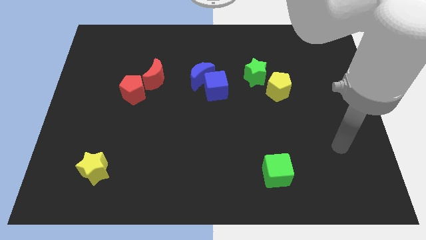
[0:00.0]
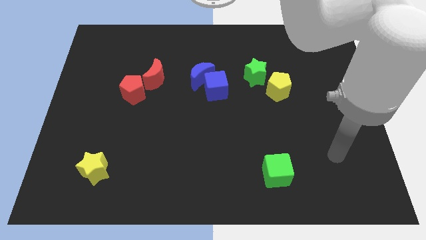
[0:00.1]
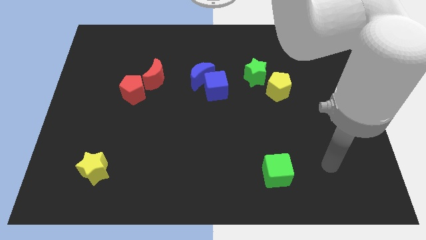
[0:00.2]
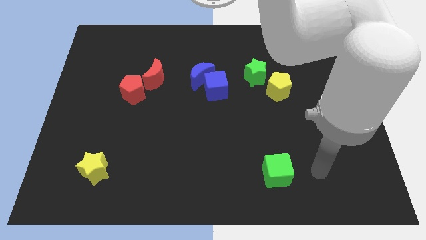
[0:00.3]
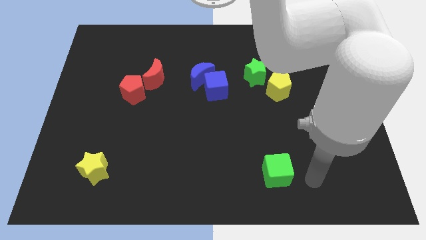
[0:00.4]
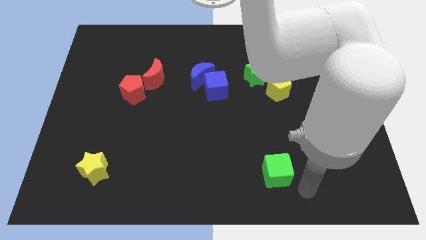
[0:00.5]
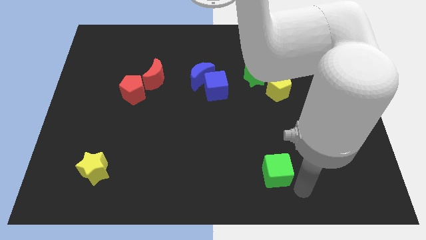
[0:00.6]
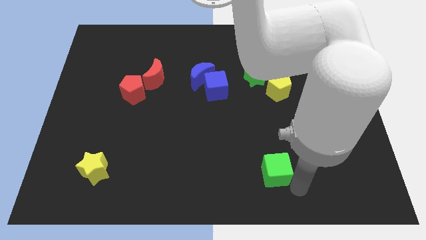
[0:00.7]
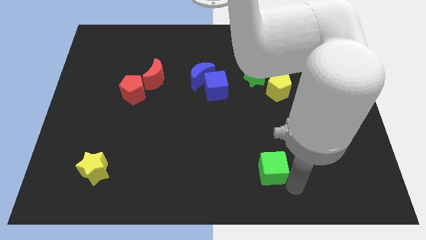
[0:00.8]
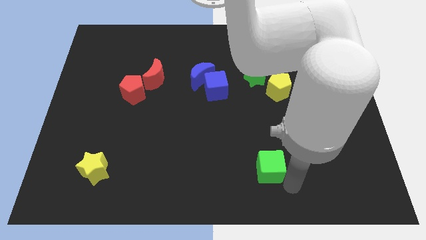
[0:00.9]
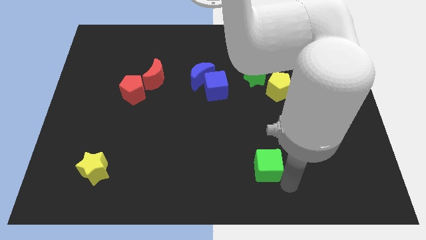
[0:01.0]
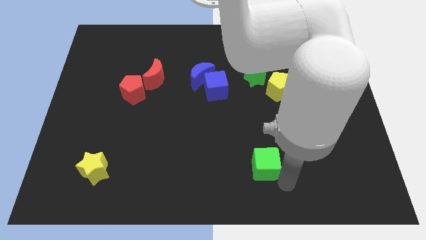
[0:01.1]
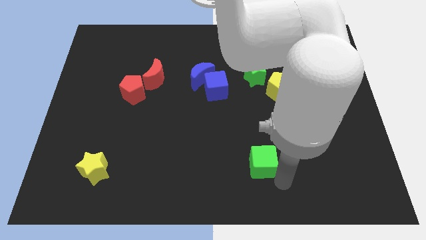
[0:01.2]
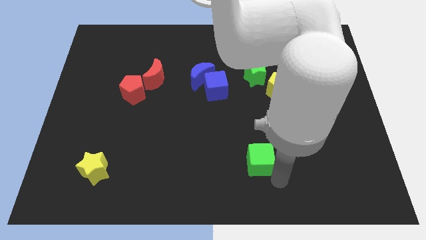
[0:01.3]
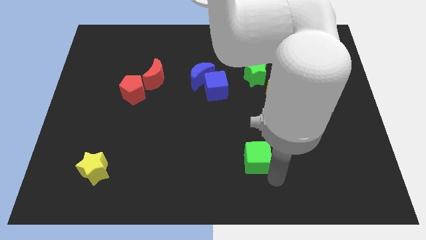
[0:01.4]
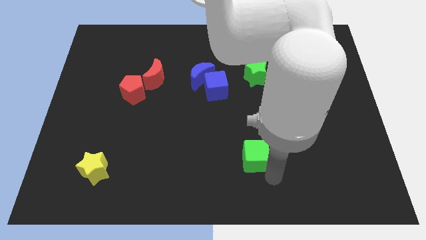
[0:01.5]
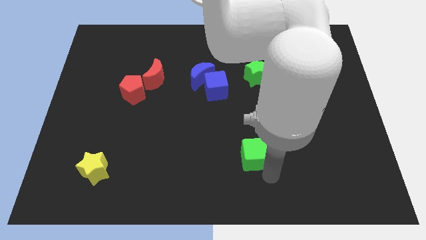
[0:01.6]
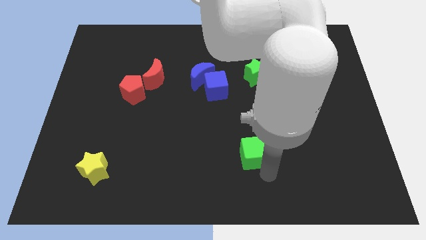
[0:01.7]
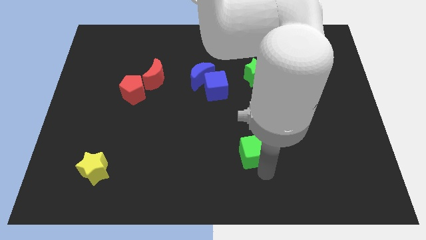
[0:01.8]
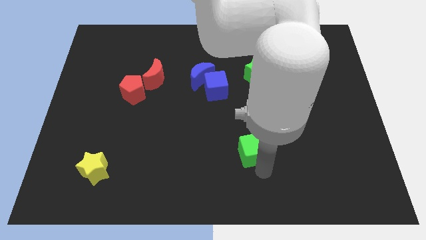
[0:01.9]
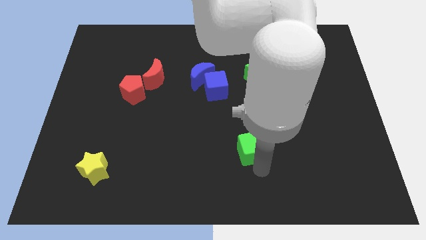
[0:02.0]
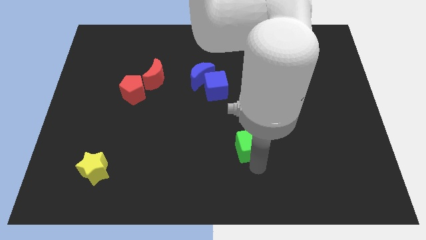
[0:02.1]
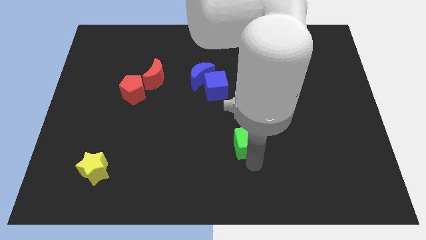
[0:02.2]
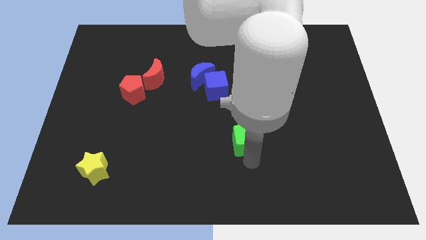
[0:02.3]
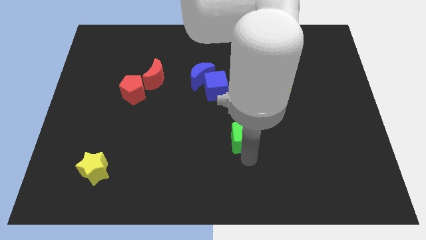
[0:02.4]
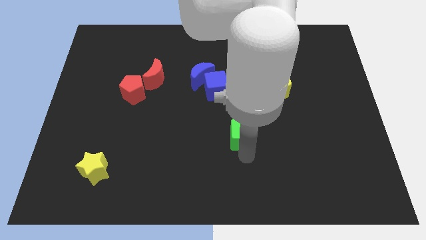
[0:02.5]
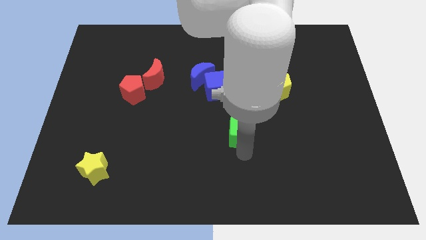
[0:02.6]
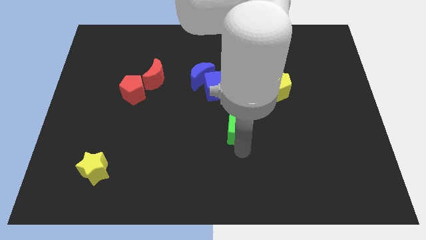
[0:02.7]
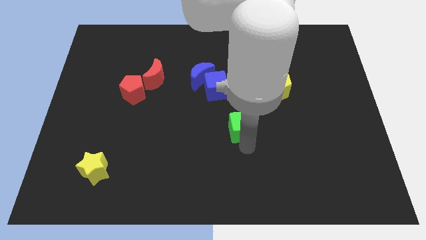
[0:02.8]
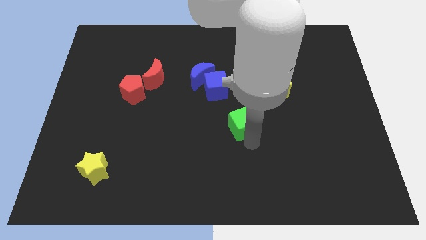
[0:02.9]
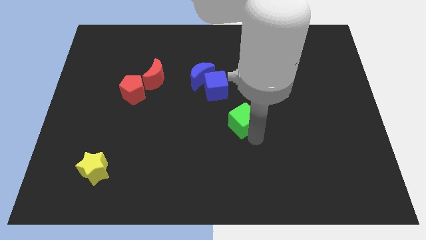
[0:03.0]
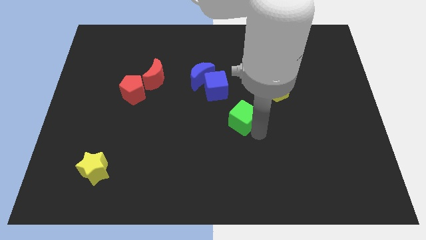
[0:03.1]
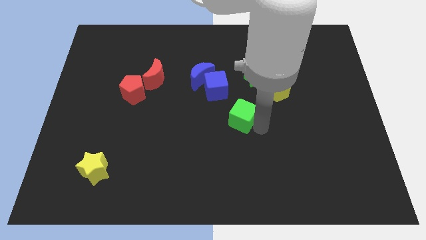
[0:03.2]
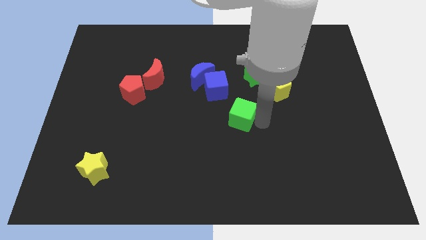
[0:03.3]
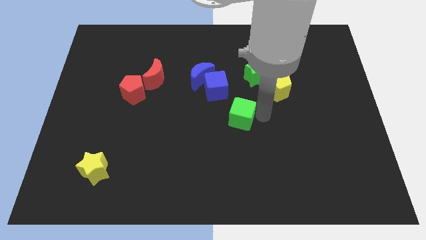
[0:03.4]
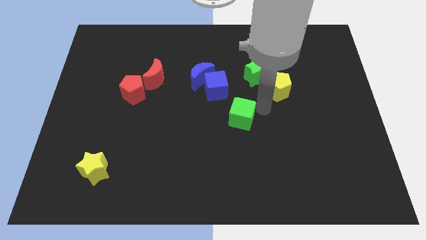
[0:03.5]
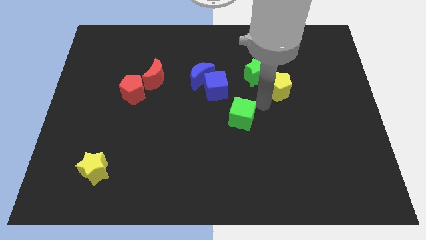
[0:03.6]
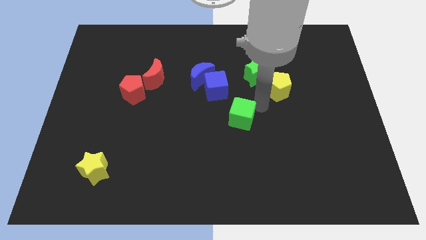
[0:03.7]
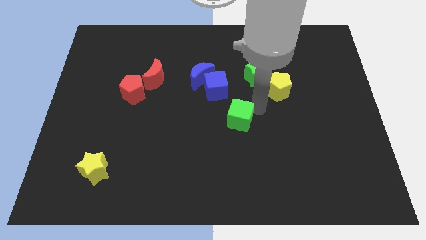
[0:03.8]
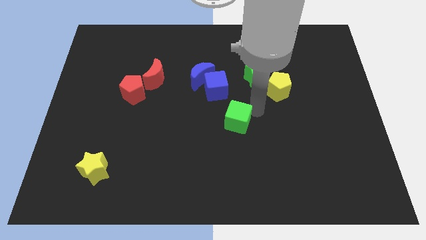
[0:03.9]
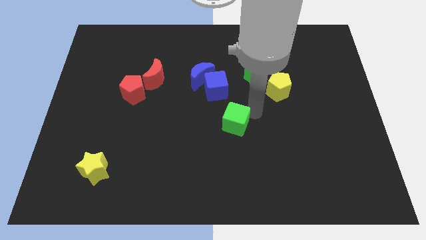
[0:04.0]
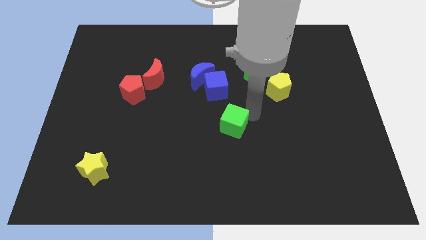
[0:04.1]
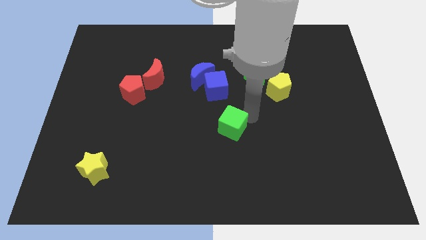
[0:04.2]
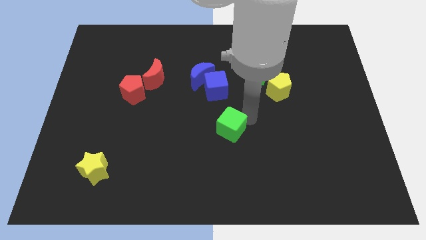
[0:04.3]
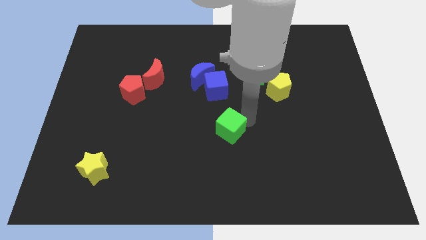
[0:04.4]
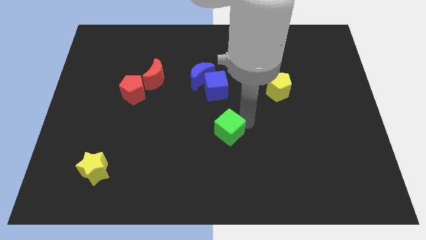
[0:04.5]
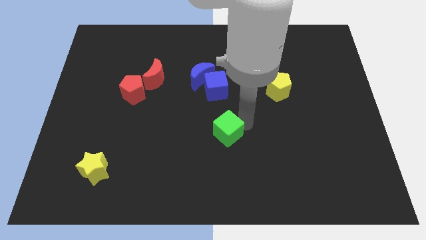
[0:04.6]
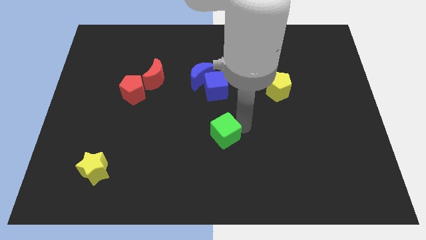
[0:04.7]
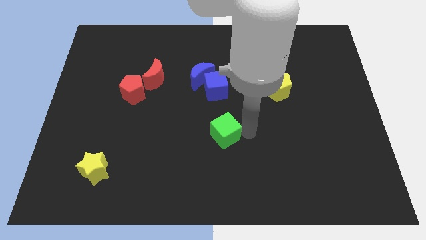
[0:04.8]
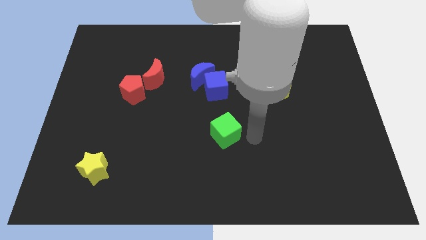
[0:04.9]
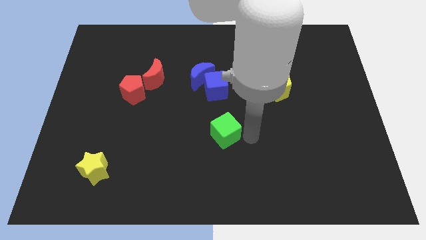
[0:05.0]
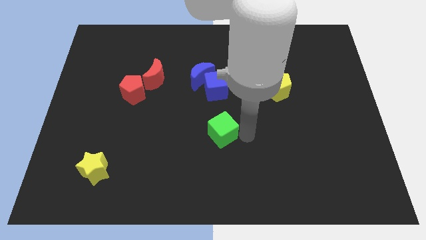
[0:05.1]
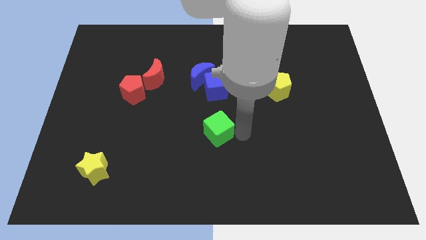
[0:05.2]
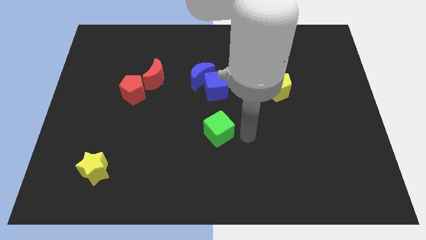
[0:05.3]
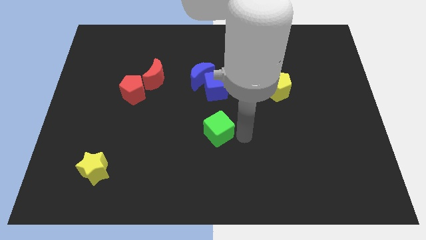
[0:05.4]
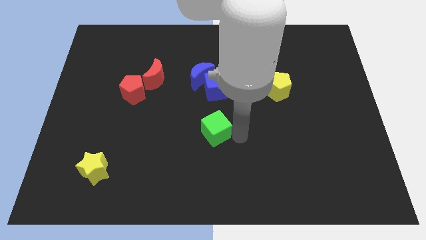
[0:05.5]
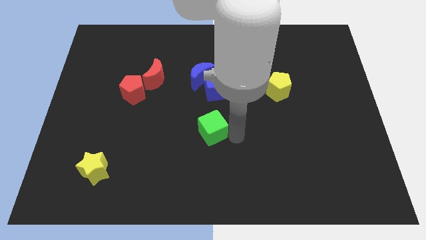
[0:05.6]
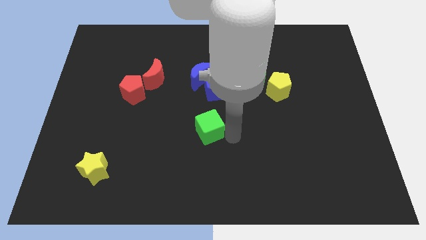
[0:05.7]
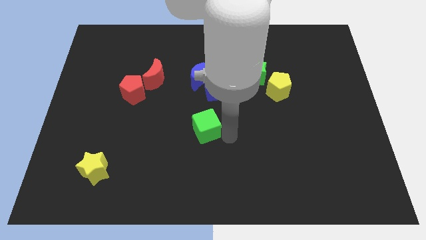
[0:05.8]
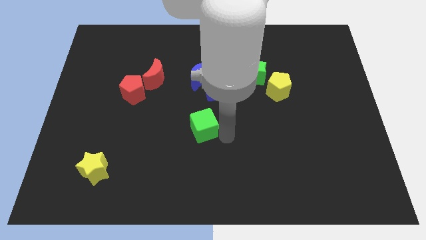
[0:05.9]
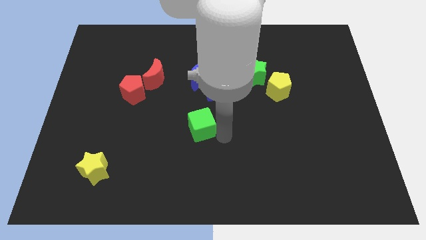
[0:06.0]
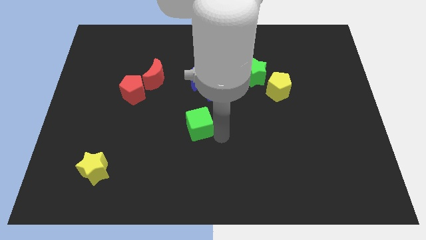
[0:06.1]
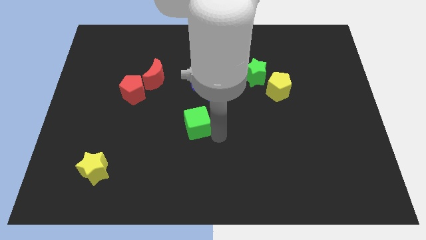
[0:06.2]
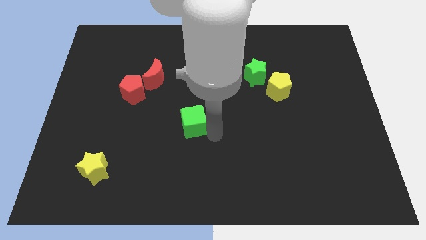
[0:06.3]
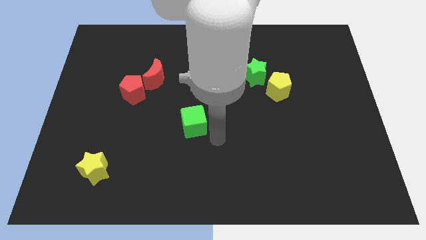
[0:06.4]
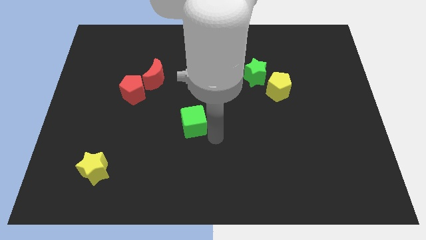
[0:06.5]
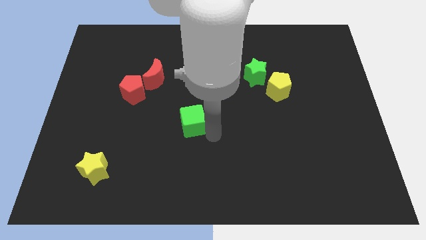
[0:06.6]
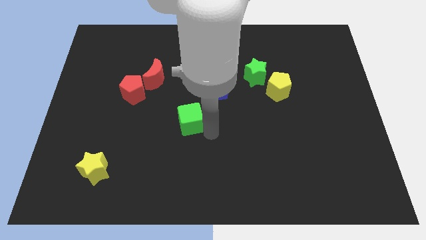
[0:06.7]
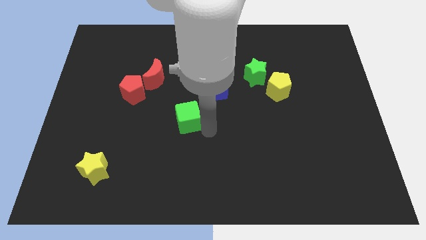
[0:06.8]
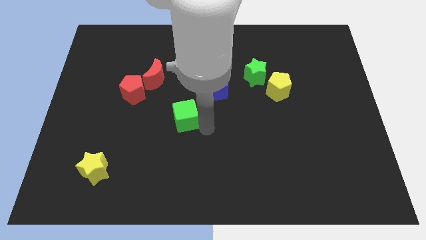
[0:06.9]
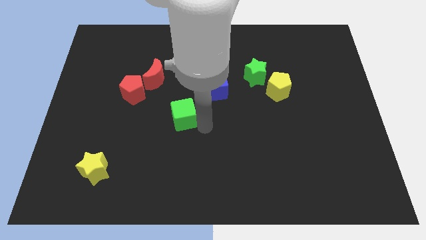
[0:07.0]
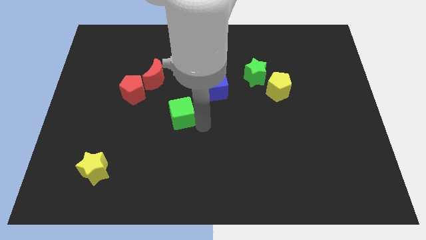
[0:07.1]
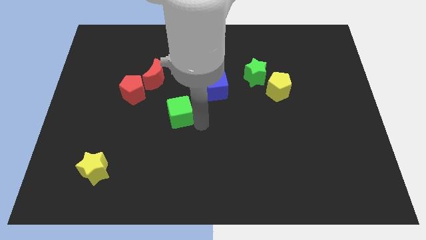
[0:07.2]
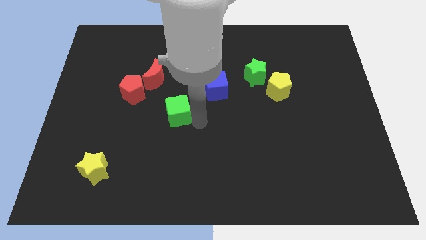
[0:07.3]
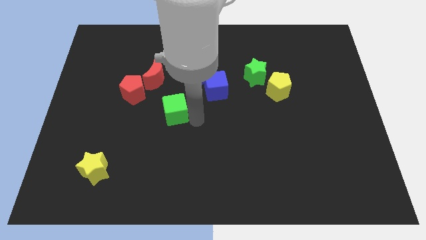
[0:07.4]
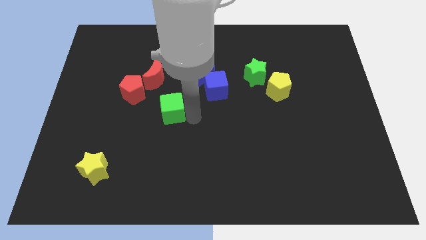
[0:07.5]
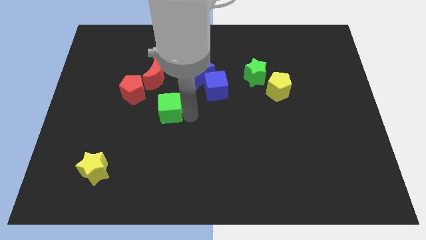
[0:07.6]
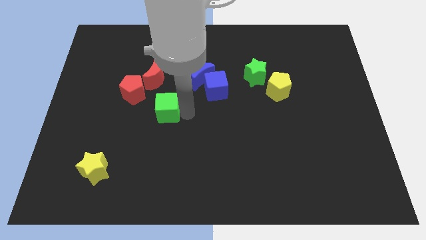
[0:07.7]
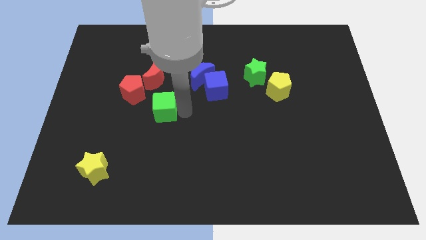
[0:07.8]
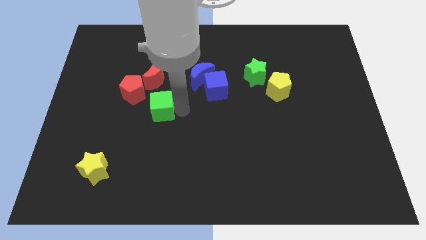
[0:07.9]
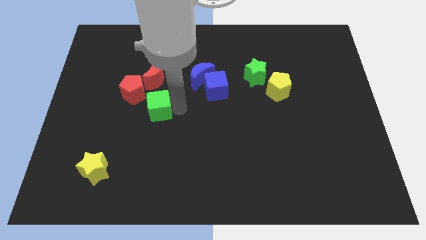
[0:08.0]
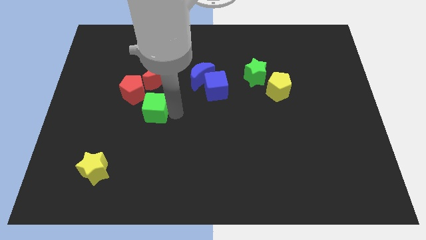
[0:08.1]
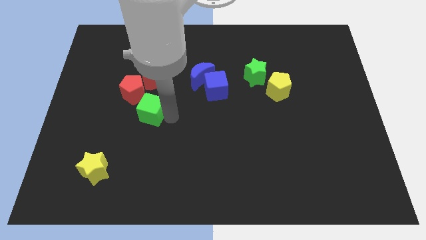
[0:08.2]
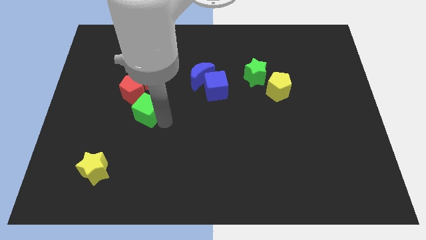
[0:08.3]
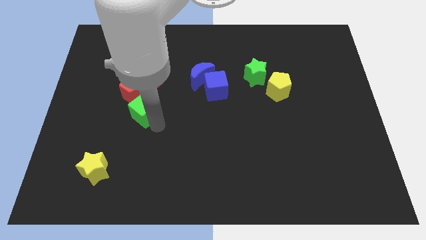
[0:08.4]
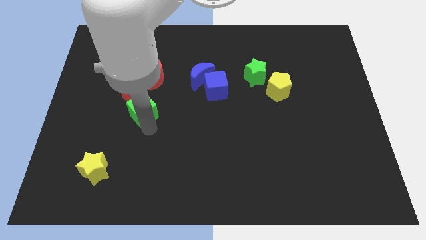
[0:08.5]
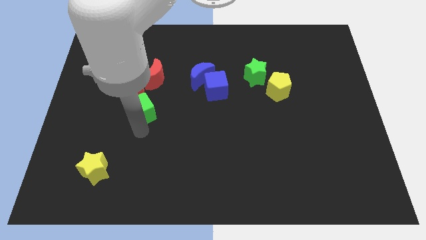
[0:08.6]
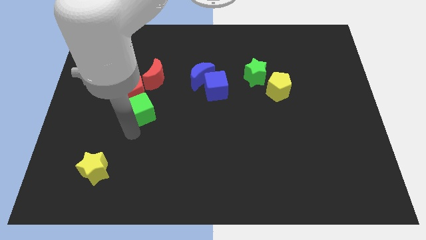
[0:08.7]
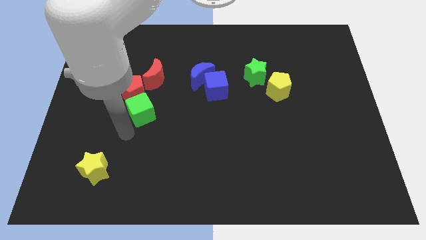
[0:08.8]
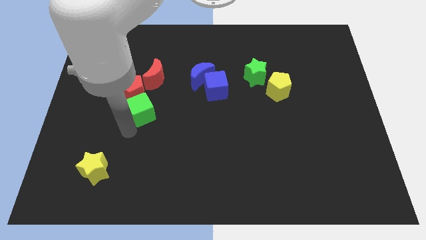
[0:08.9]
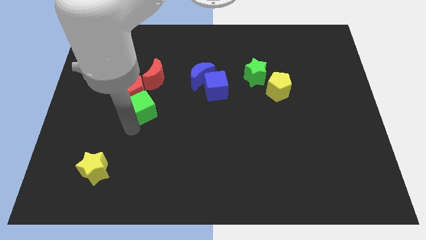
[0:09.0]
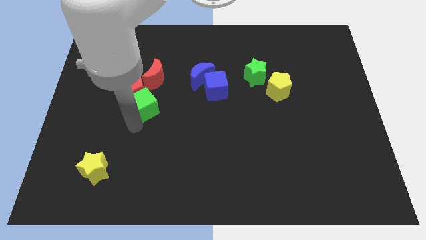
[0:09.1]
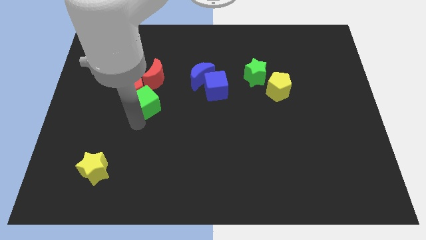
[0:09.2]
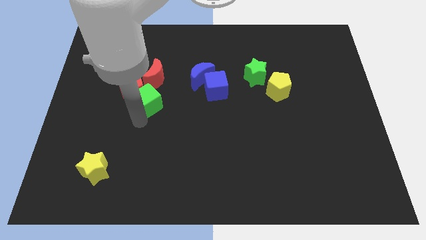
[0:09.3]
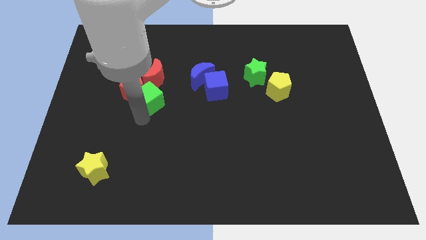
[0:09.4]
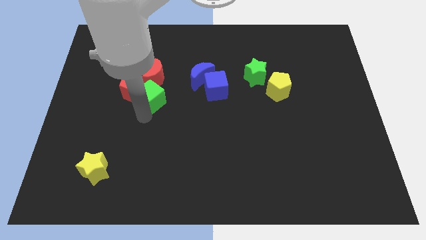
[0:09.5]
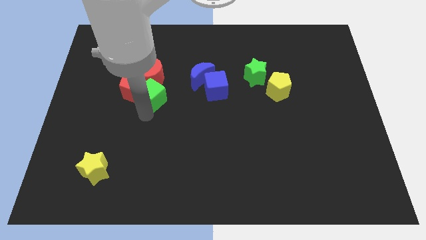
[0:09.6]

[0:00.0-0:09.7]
push the green cube towards the red moon
